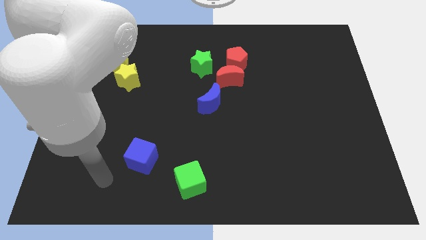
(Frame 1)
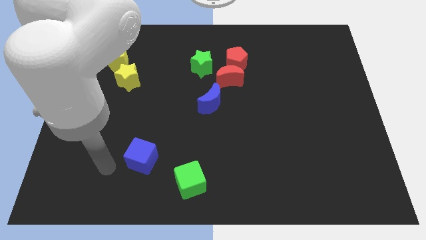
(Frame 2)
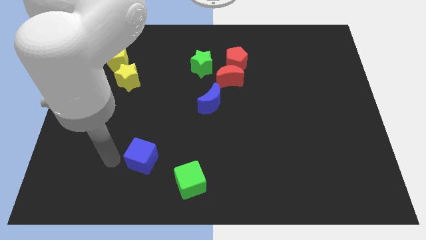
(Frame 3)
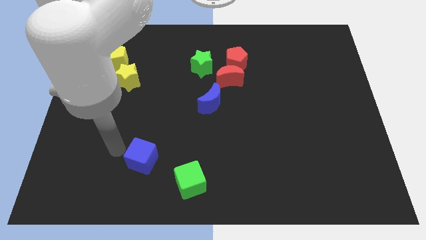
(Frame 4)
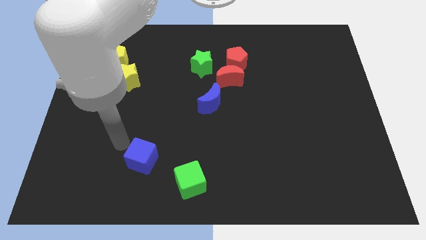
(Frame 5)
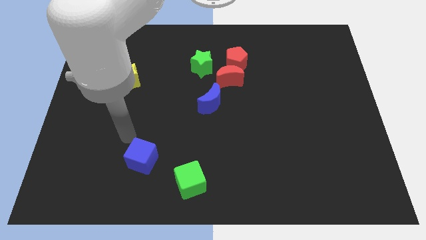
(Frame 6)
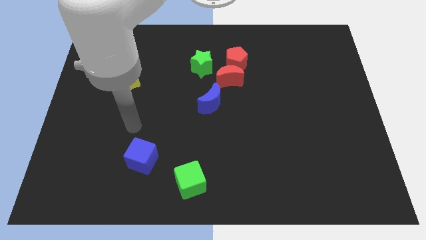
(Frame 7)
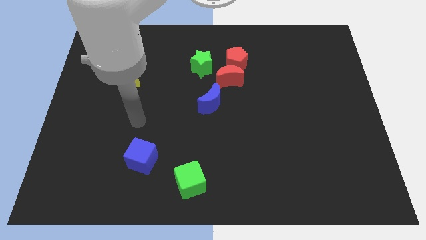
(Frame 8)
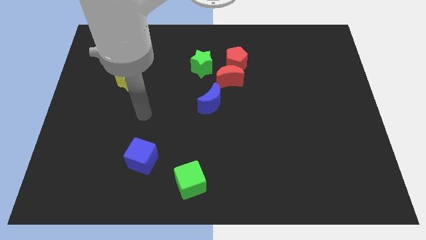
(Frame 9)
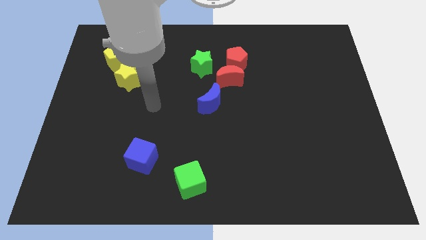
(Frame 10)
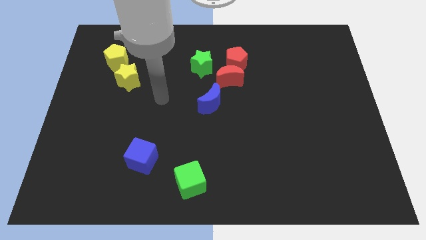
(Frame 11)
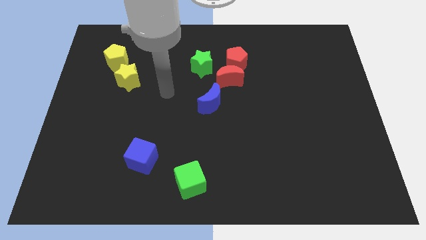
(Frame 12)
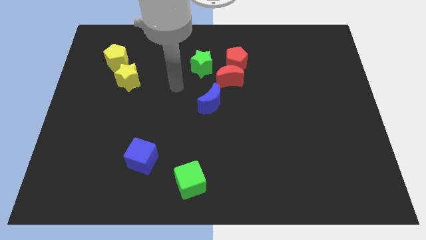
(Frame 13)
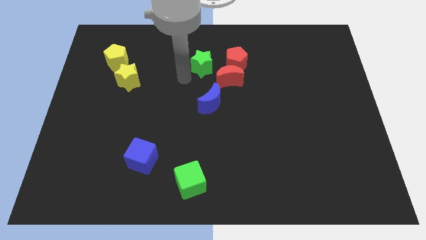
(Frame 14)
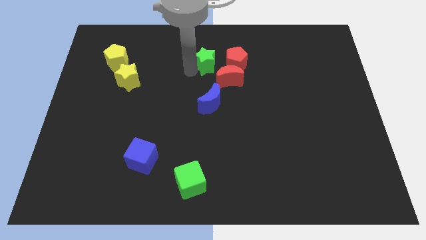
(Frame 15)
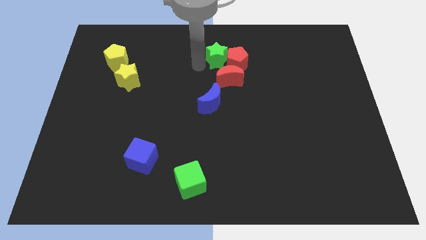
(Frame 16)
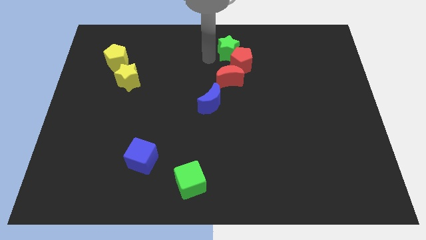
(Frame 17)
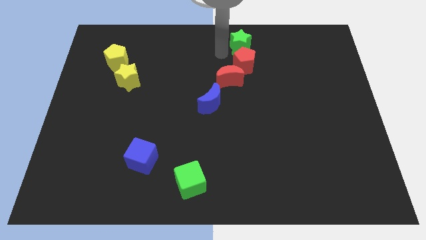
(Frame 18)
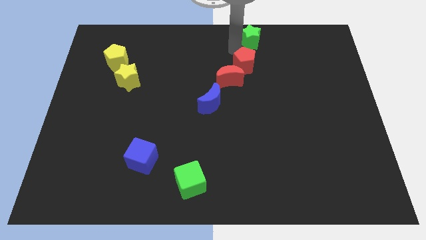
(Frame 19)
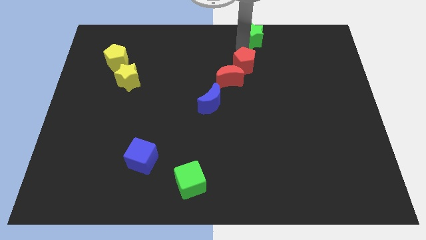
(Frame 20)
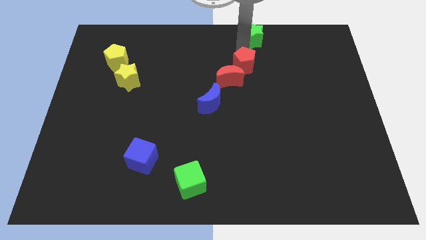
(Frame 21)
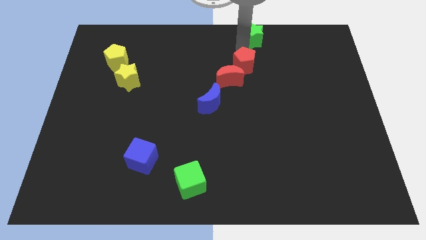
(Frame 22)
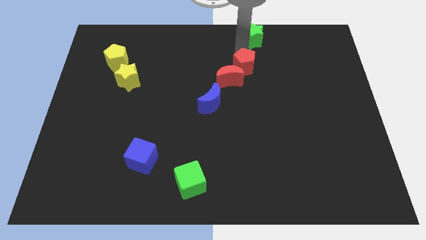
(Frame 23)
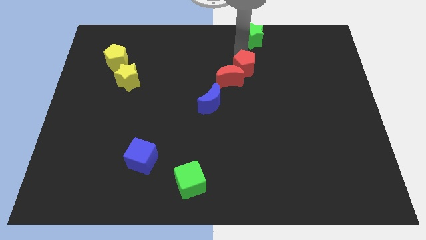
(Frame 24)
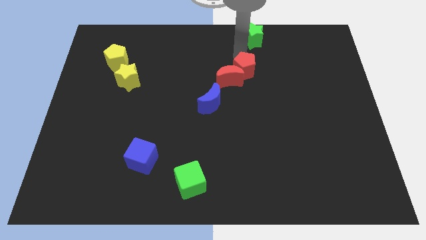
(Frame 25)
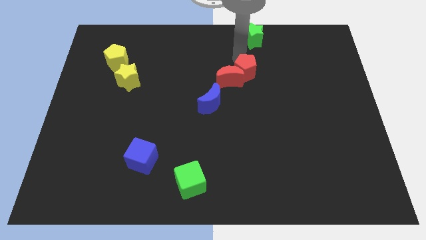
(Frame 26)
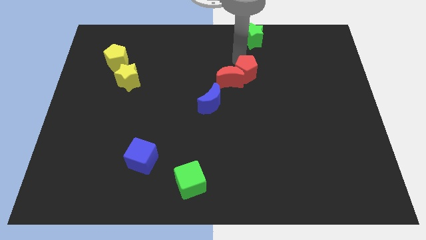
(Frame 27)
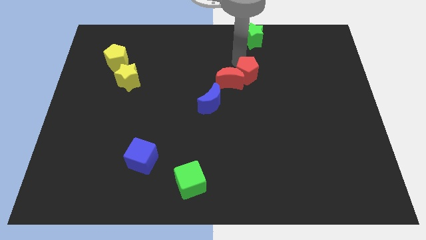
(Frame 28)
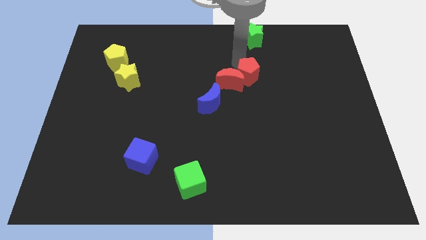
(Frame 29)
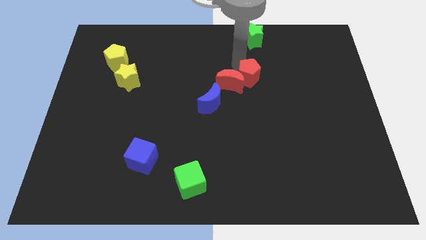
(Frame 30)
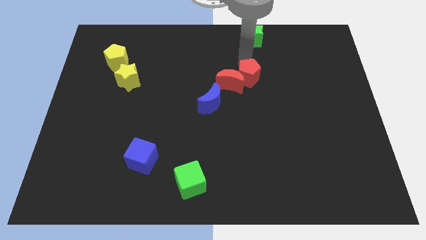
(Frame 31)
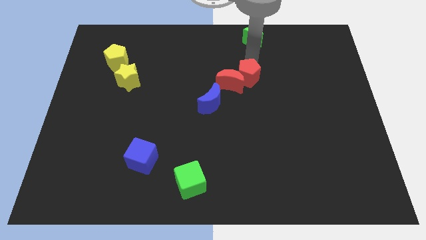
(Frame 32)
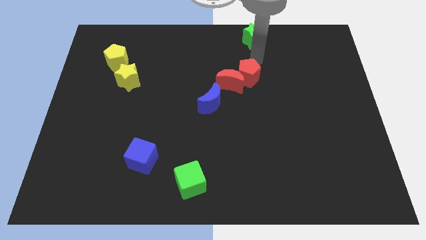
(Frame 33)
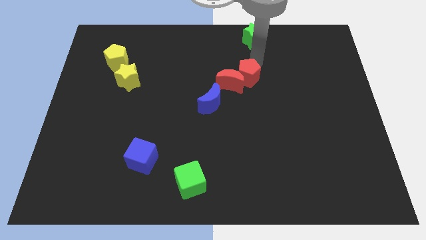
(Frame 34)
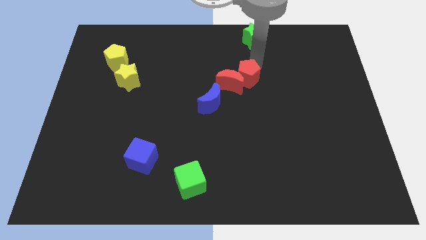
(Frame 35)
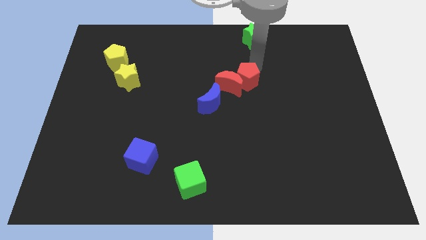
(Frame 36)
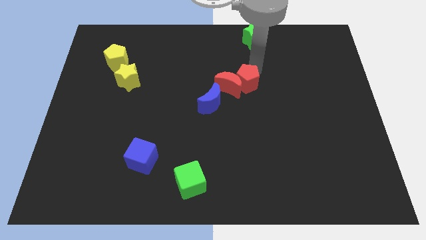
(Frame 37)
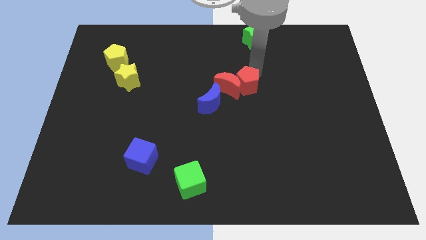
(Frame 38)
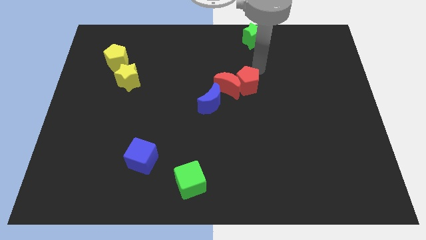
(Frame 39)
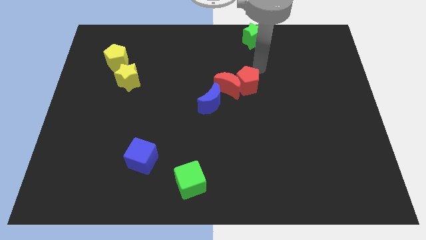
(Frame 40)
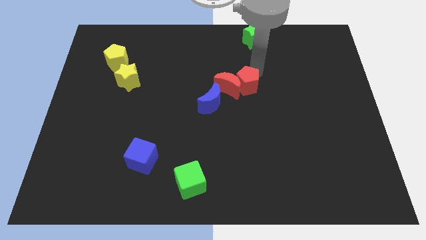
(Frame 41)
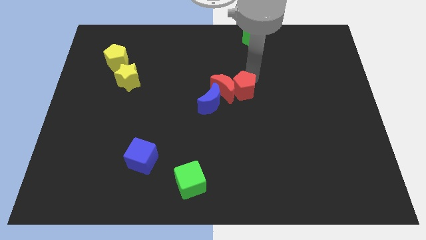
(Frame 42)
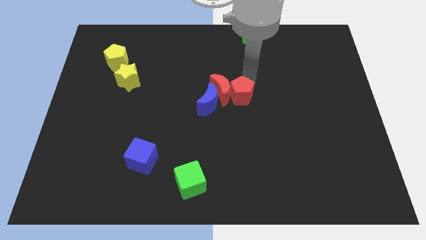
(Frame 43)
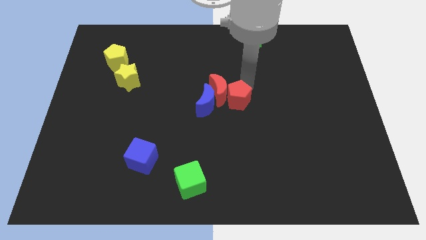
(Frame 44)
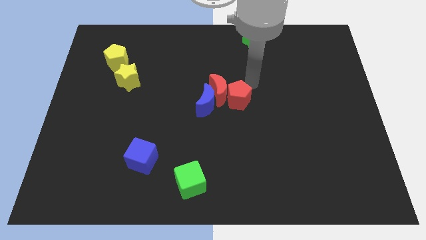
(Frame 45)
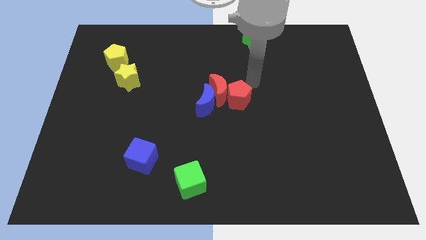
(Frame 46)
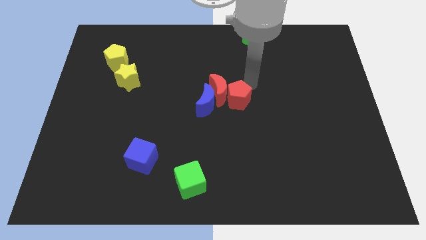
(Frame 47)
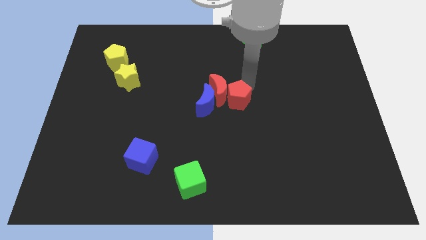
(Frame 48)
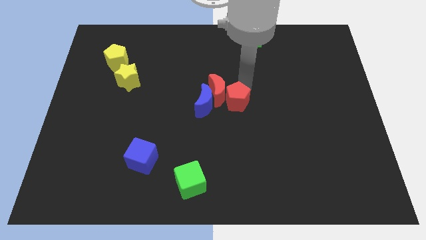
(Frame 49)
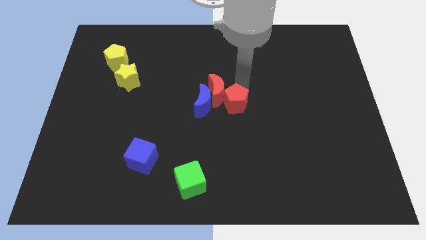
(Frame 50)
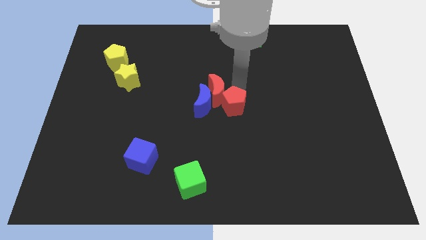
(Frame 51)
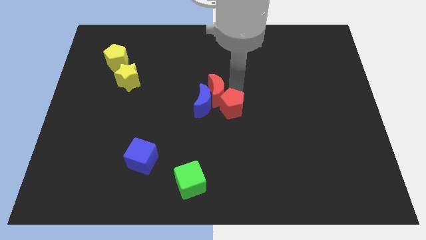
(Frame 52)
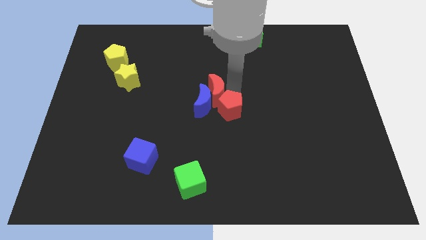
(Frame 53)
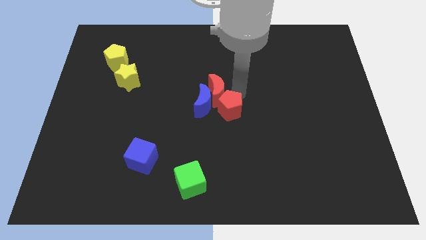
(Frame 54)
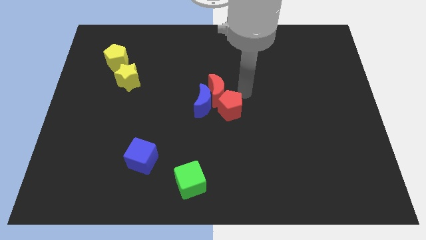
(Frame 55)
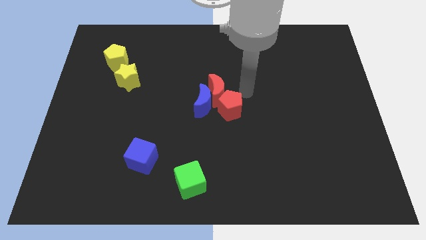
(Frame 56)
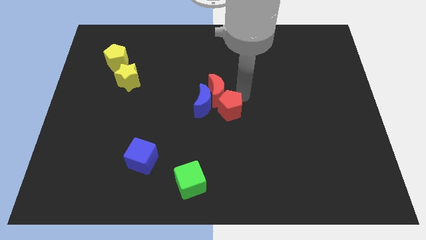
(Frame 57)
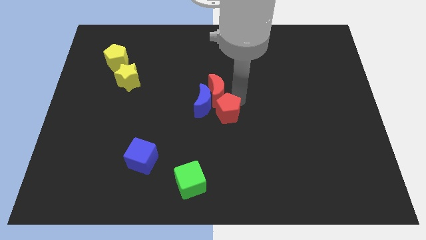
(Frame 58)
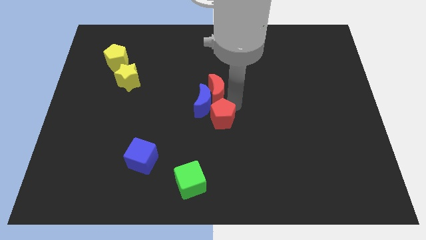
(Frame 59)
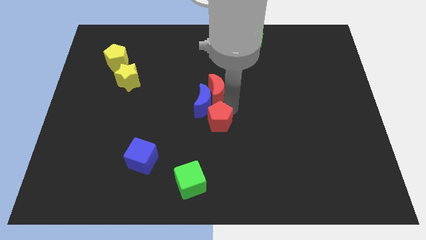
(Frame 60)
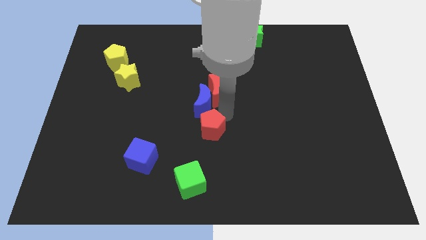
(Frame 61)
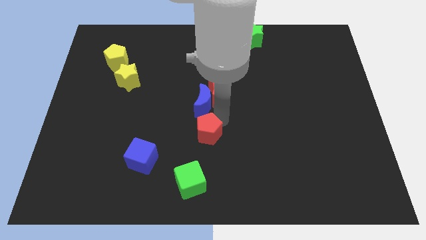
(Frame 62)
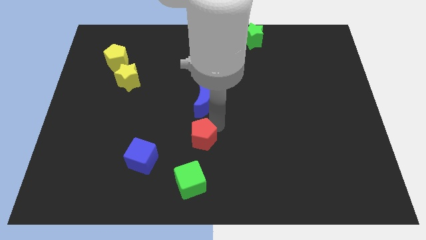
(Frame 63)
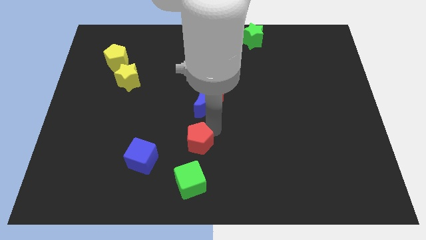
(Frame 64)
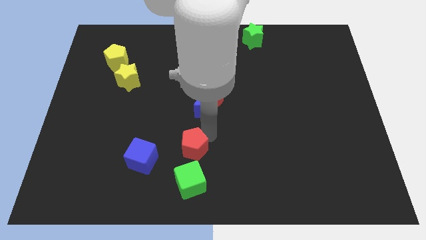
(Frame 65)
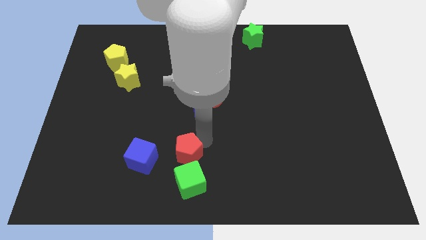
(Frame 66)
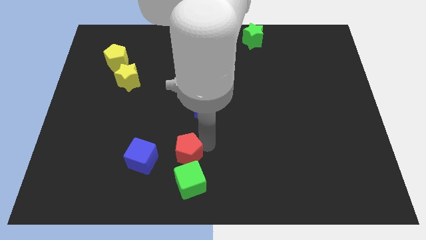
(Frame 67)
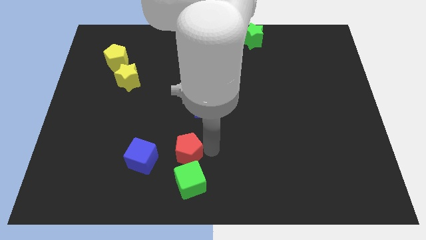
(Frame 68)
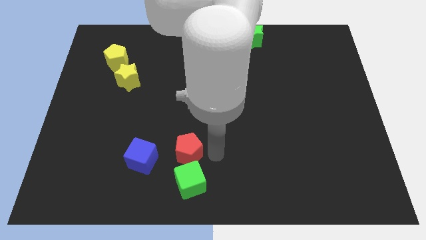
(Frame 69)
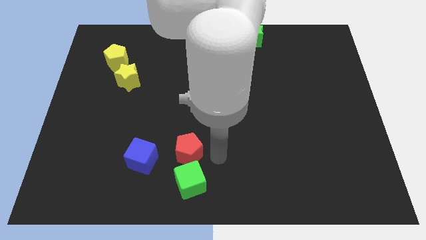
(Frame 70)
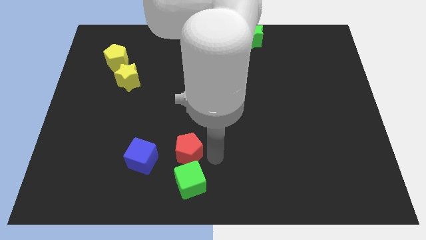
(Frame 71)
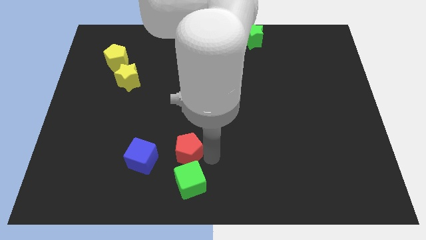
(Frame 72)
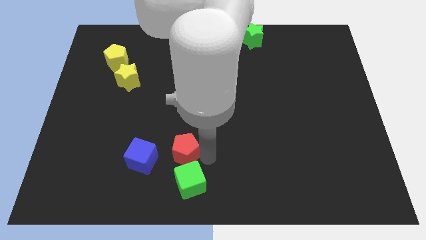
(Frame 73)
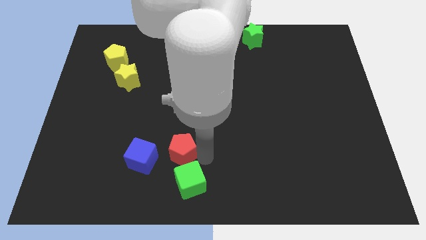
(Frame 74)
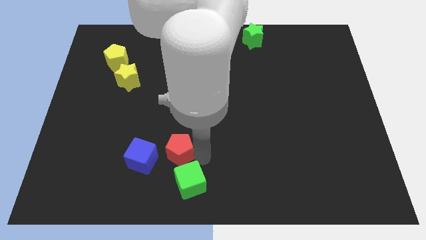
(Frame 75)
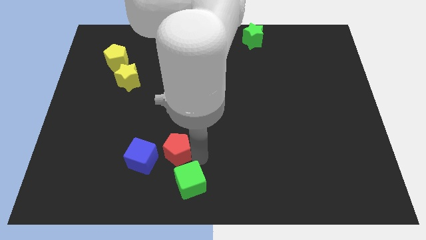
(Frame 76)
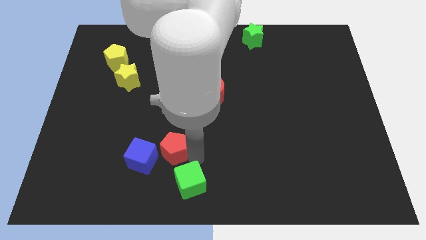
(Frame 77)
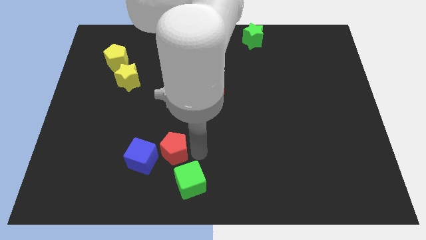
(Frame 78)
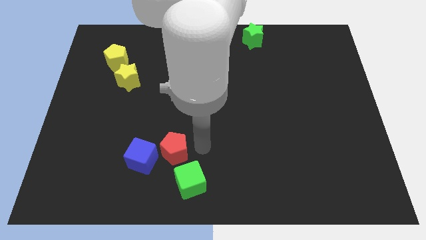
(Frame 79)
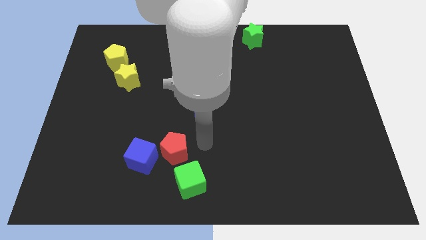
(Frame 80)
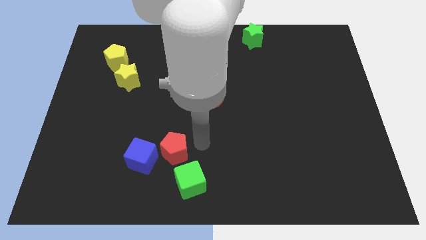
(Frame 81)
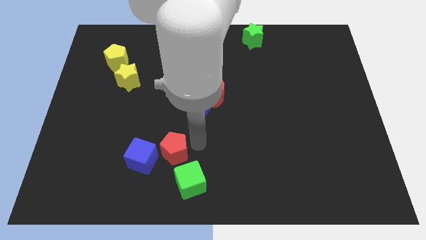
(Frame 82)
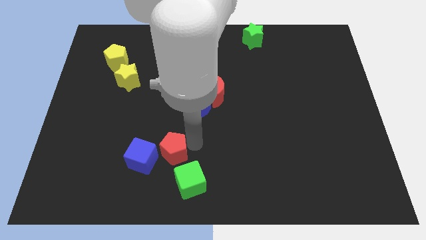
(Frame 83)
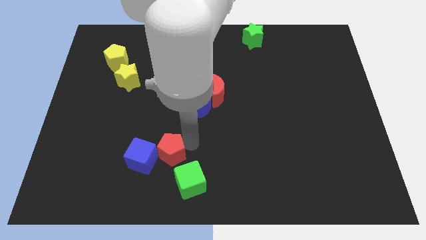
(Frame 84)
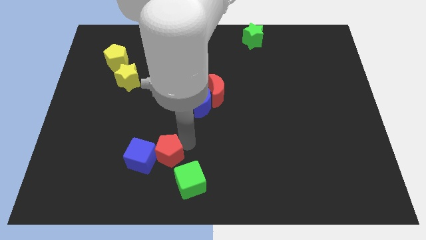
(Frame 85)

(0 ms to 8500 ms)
push the red pentagon to the blue cube
